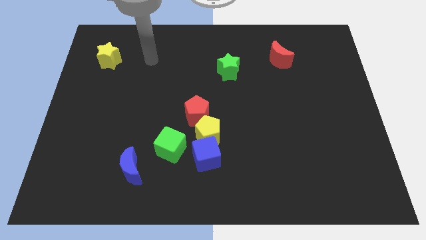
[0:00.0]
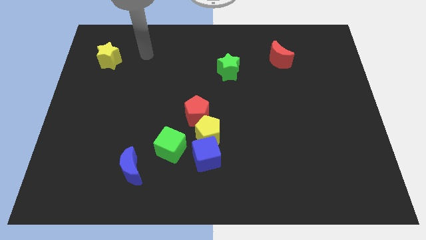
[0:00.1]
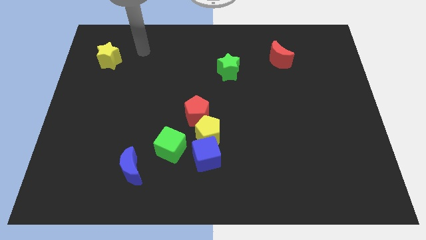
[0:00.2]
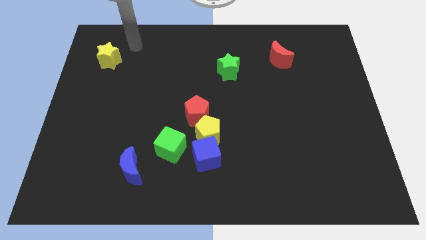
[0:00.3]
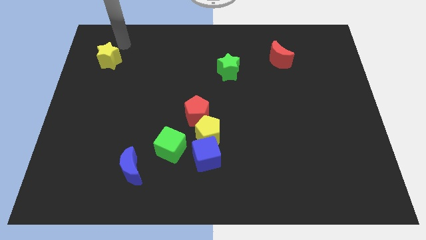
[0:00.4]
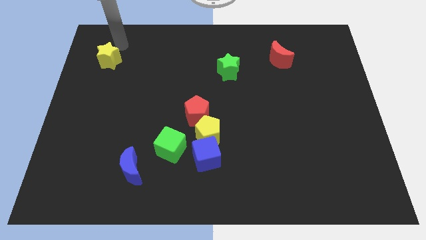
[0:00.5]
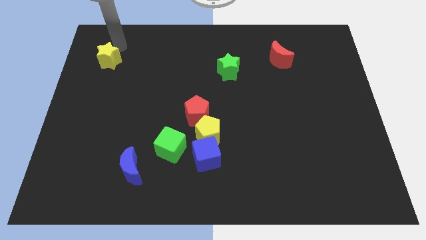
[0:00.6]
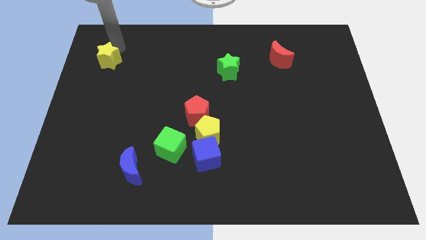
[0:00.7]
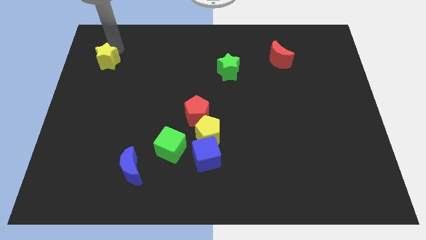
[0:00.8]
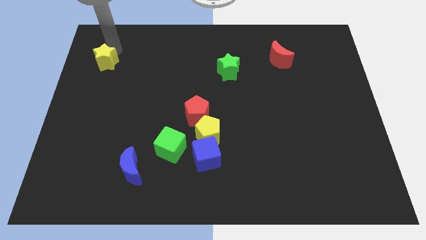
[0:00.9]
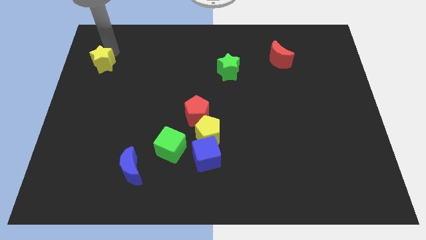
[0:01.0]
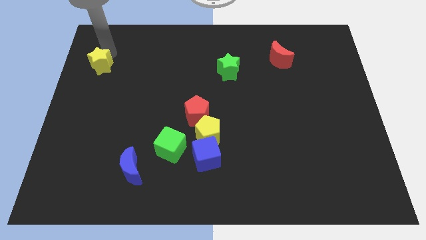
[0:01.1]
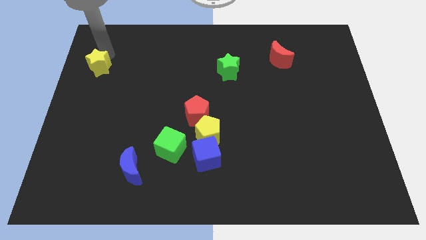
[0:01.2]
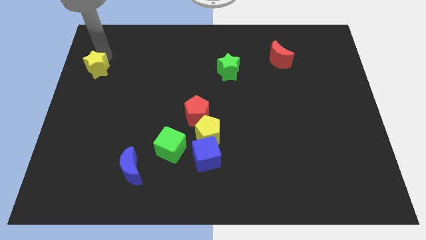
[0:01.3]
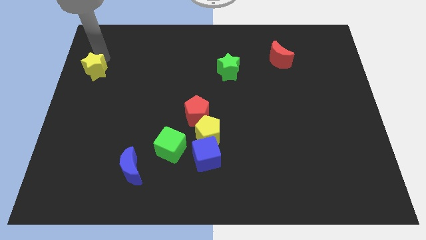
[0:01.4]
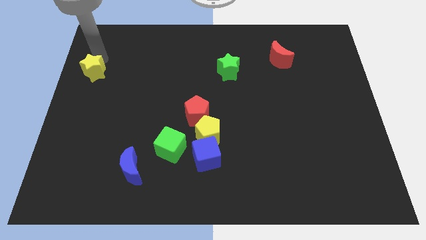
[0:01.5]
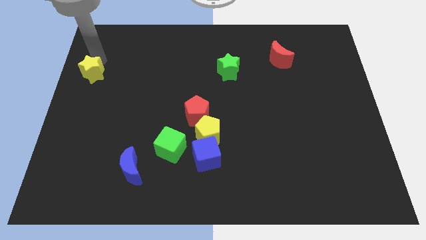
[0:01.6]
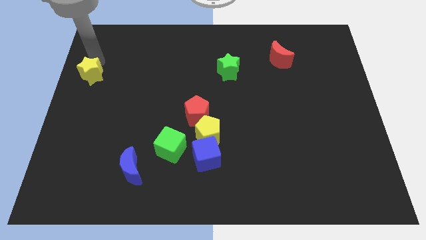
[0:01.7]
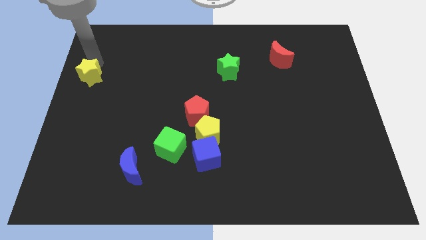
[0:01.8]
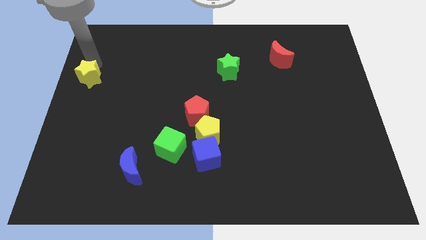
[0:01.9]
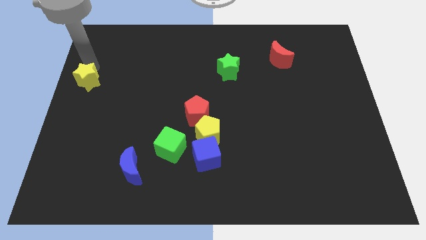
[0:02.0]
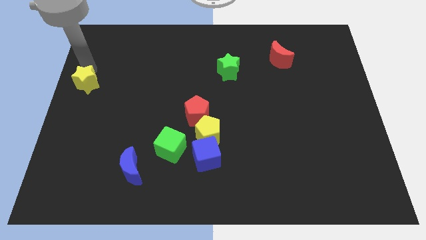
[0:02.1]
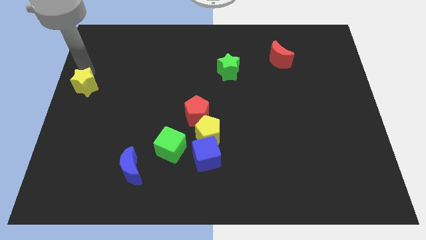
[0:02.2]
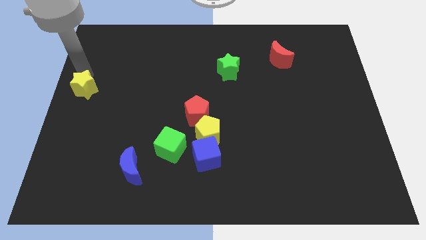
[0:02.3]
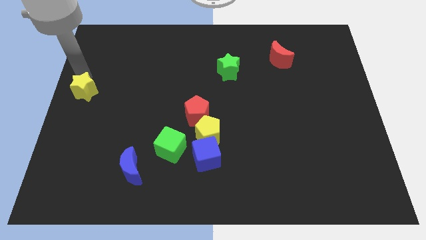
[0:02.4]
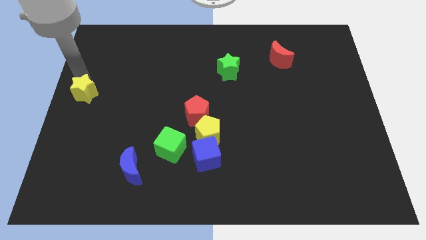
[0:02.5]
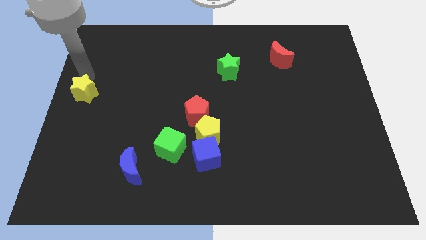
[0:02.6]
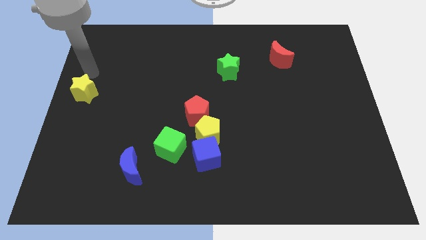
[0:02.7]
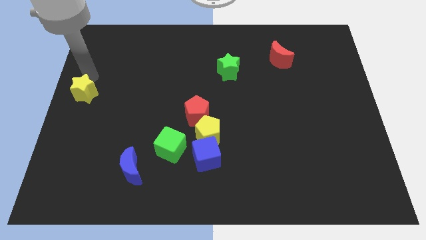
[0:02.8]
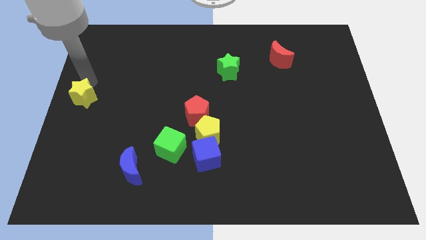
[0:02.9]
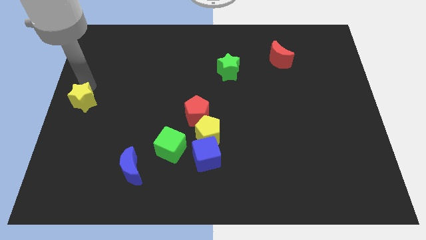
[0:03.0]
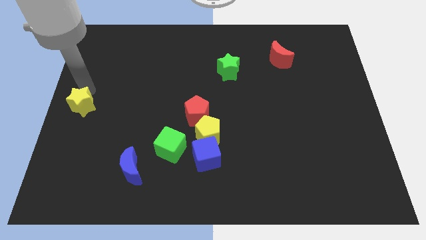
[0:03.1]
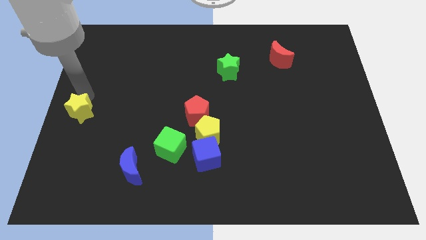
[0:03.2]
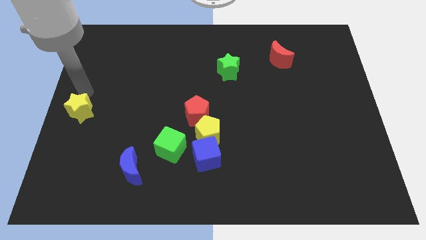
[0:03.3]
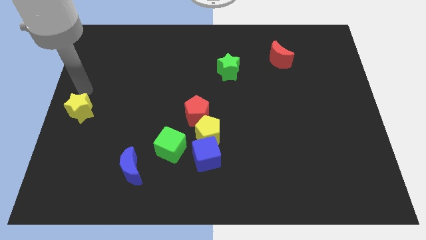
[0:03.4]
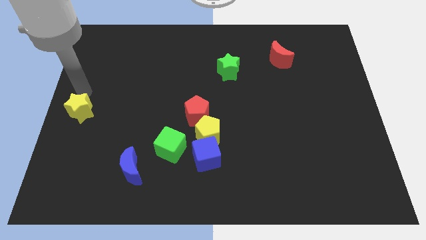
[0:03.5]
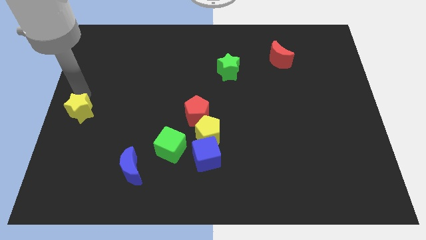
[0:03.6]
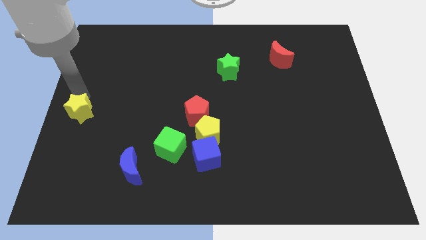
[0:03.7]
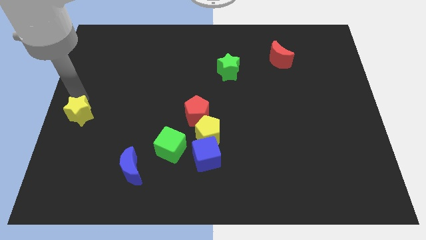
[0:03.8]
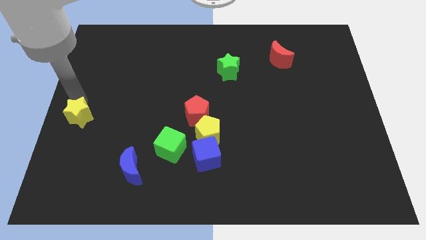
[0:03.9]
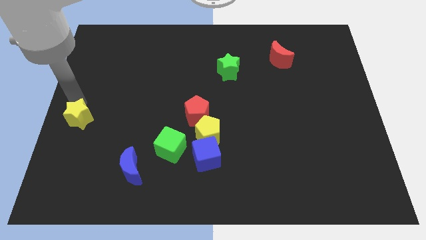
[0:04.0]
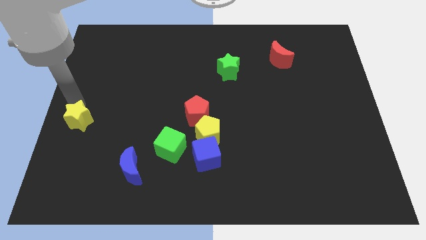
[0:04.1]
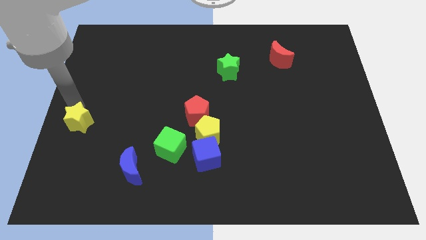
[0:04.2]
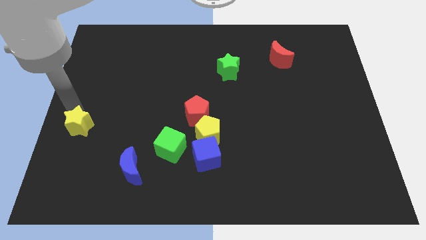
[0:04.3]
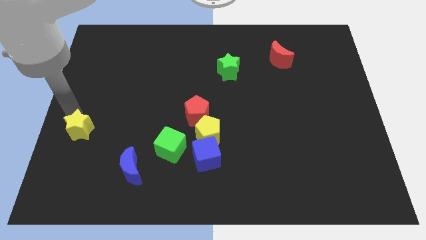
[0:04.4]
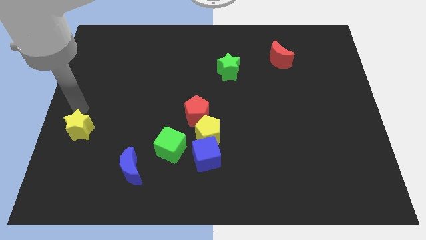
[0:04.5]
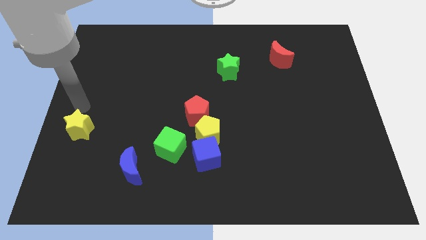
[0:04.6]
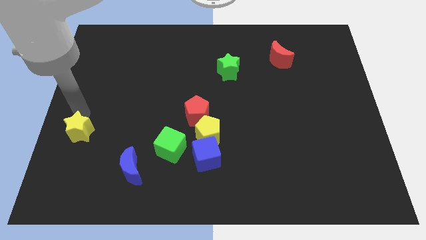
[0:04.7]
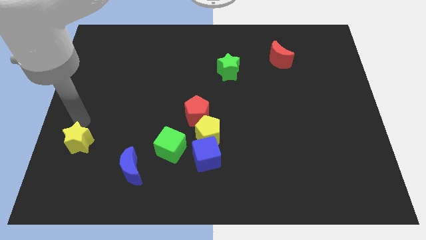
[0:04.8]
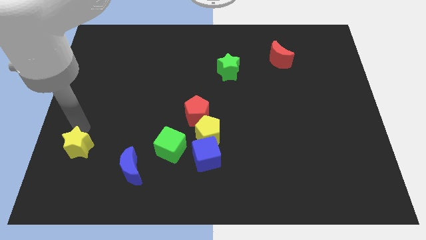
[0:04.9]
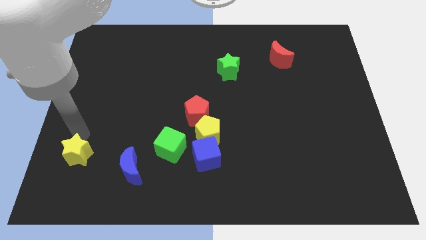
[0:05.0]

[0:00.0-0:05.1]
slide the yellow star to the left side of the blue moon
